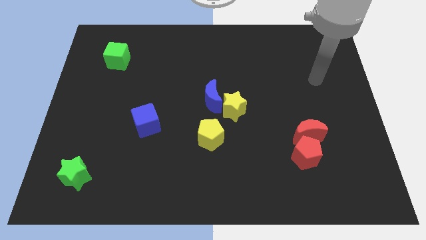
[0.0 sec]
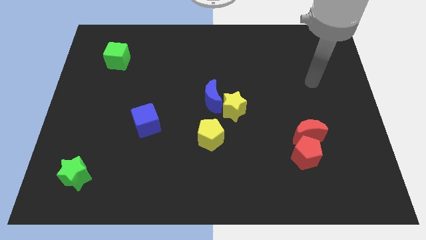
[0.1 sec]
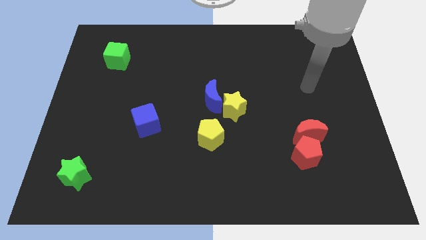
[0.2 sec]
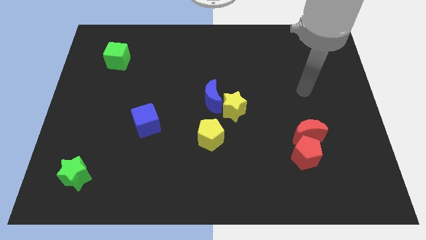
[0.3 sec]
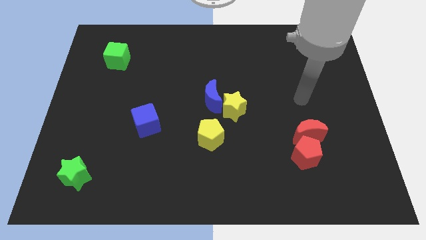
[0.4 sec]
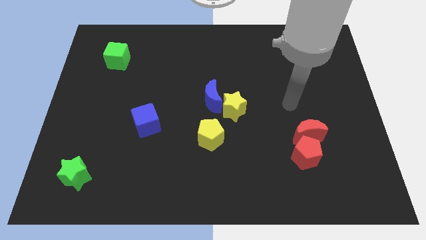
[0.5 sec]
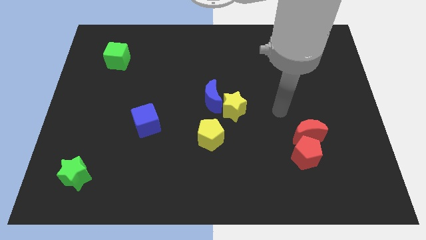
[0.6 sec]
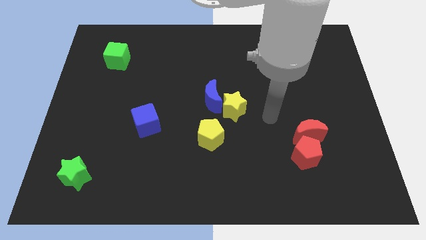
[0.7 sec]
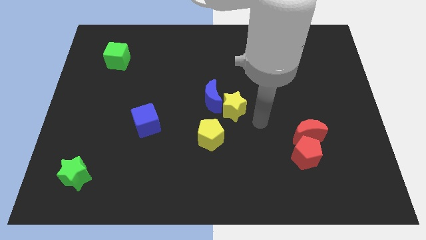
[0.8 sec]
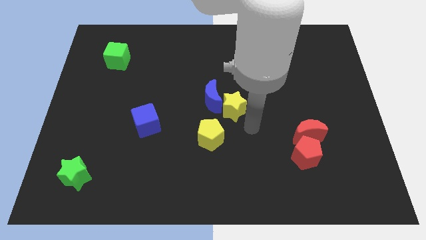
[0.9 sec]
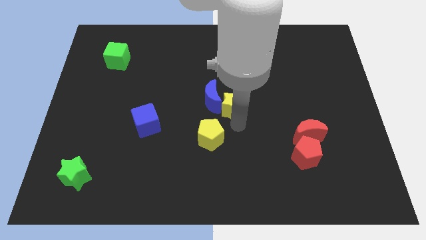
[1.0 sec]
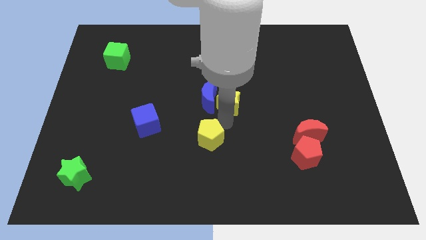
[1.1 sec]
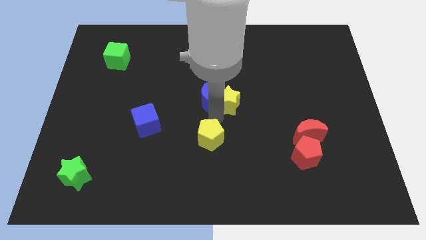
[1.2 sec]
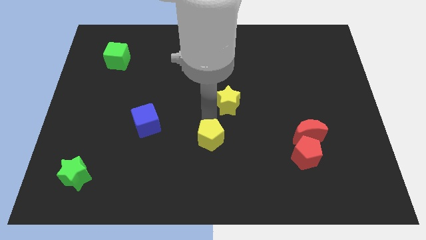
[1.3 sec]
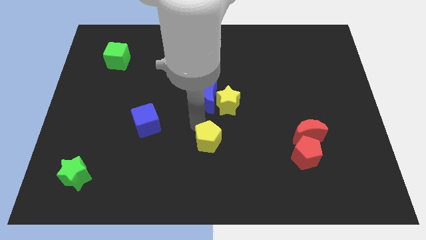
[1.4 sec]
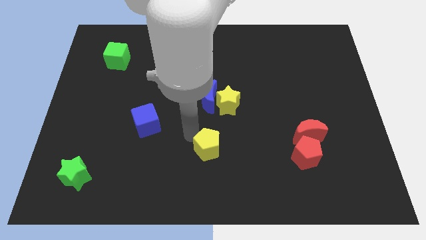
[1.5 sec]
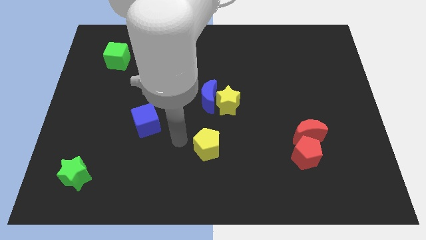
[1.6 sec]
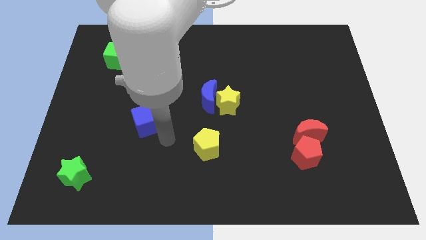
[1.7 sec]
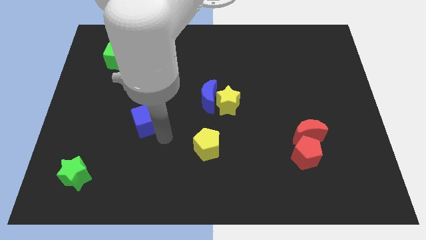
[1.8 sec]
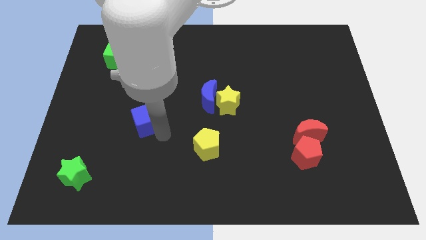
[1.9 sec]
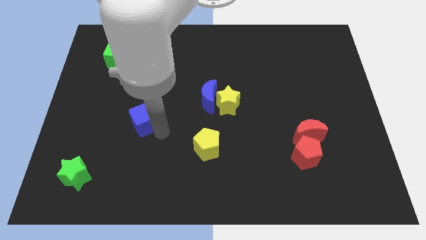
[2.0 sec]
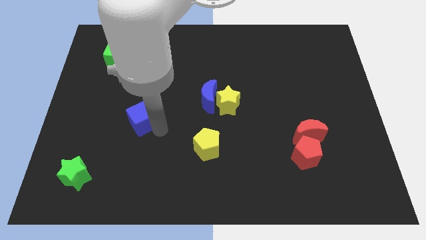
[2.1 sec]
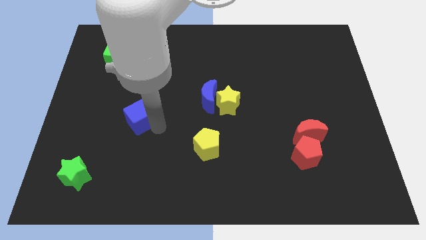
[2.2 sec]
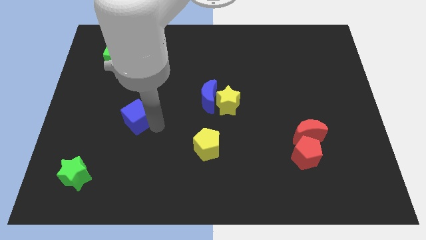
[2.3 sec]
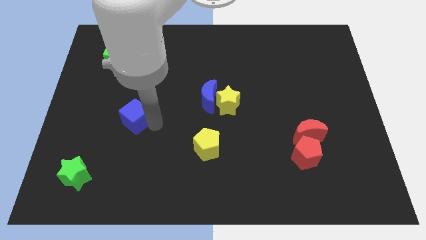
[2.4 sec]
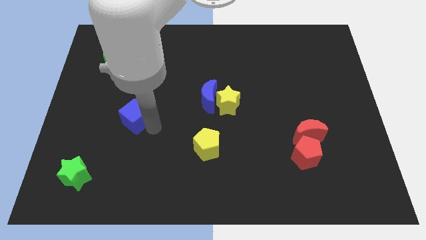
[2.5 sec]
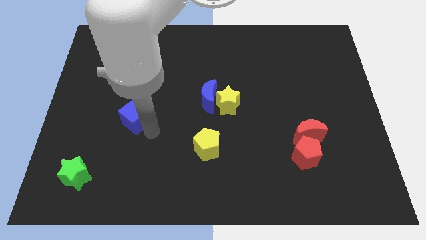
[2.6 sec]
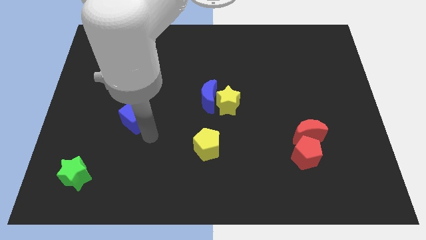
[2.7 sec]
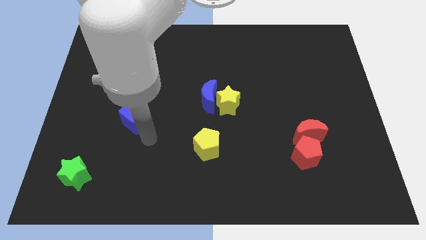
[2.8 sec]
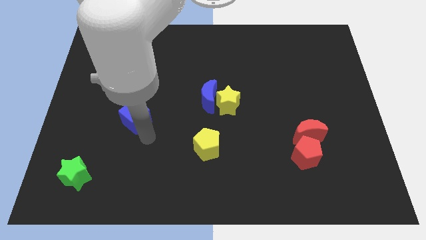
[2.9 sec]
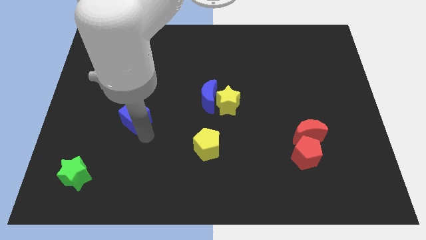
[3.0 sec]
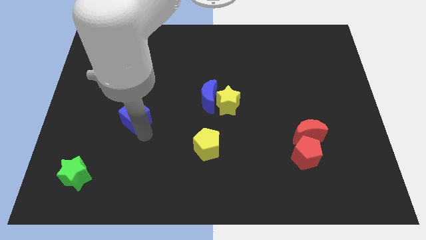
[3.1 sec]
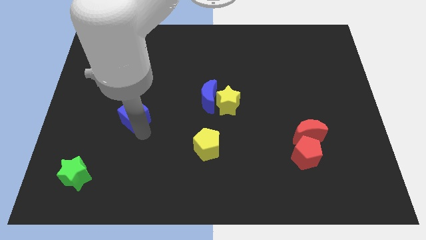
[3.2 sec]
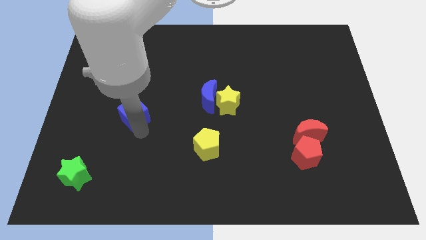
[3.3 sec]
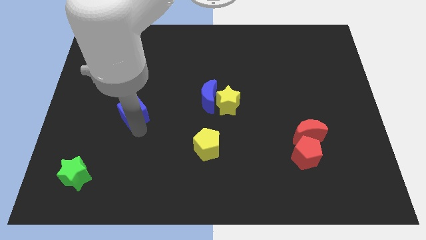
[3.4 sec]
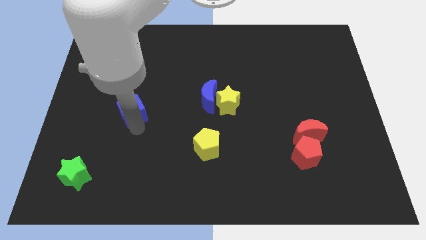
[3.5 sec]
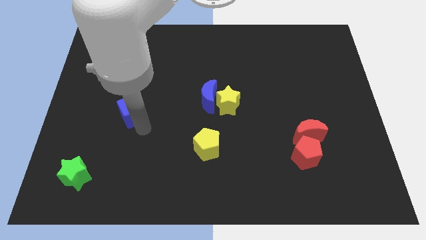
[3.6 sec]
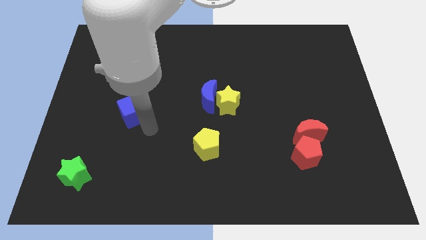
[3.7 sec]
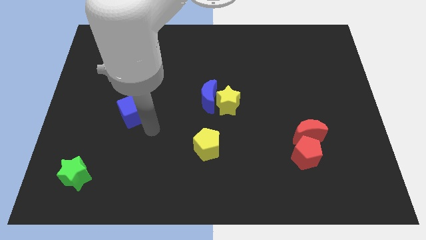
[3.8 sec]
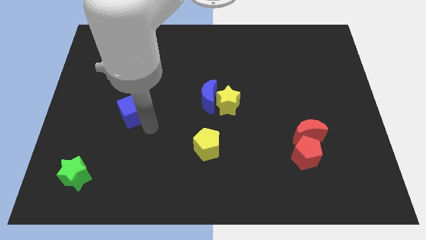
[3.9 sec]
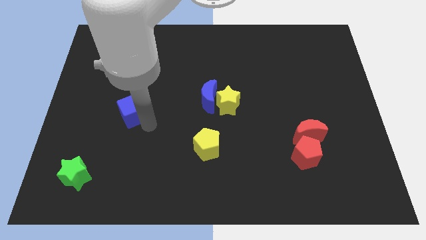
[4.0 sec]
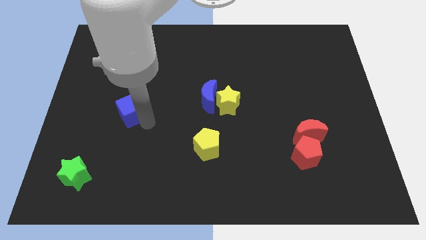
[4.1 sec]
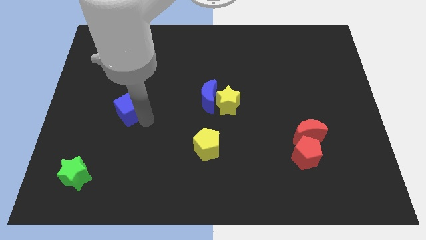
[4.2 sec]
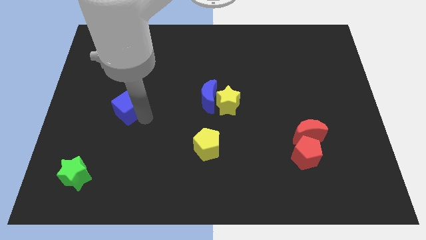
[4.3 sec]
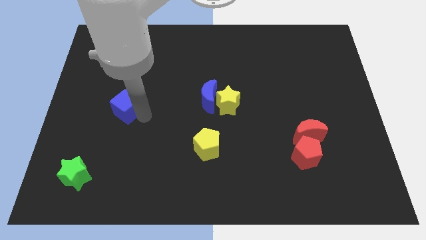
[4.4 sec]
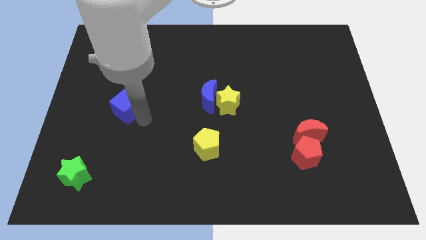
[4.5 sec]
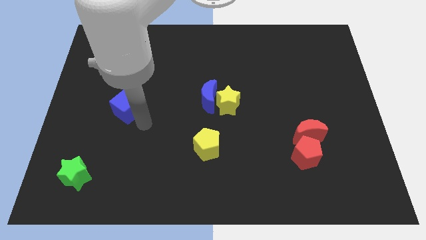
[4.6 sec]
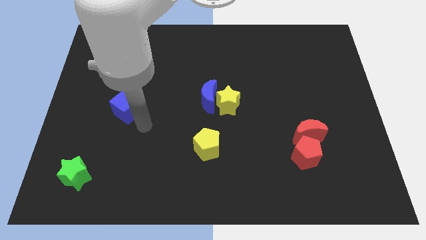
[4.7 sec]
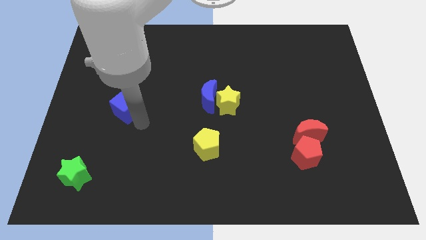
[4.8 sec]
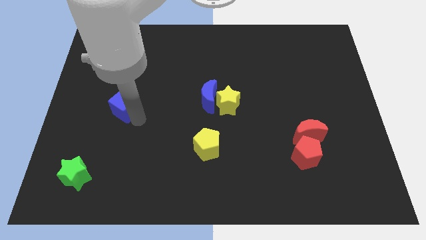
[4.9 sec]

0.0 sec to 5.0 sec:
slightly move the blue cube up and then left

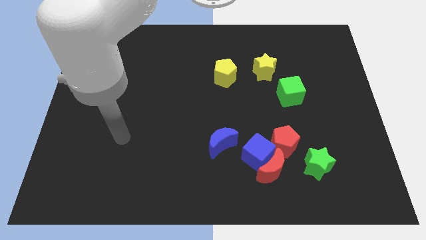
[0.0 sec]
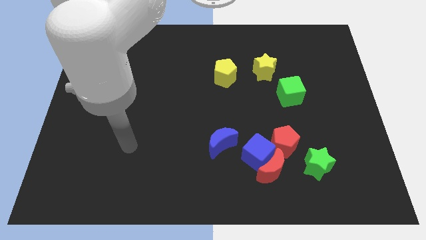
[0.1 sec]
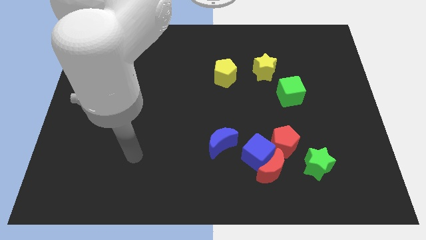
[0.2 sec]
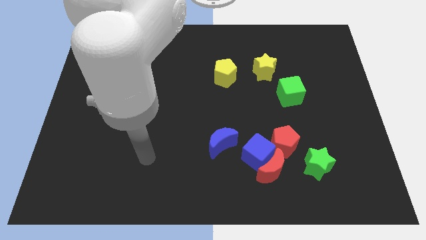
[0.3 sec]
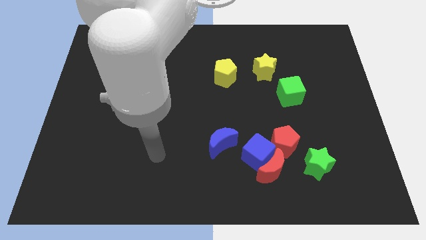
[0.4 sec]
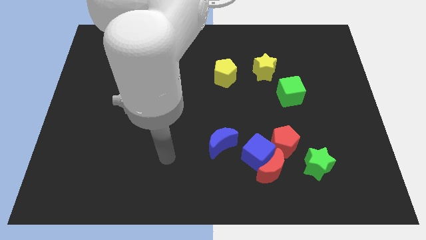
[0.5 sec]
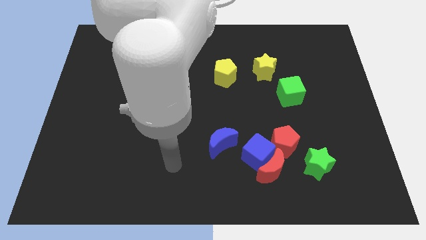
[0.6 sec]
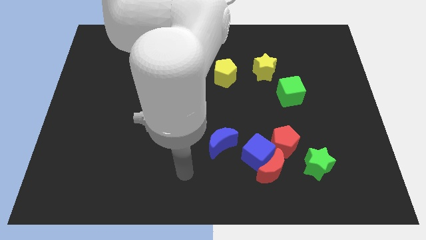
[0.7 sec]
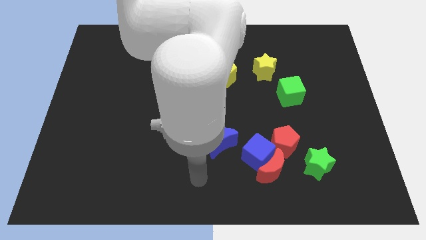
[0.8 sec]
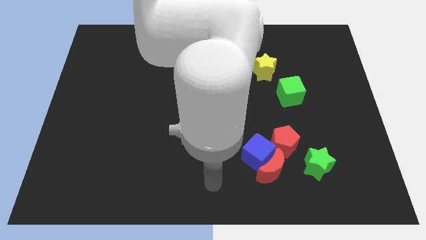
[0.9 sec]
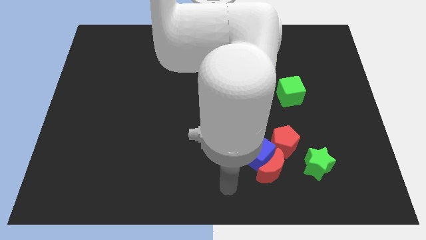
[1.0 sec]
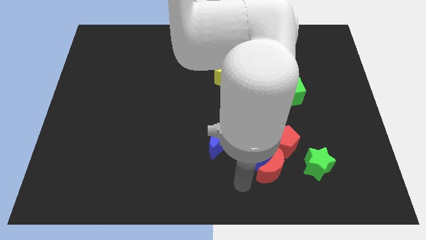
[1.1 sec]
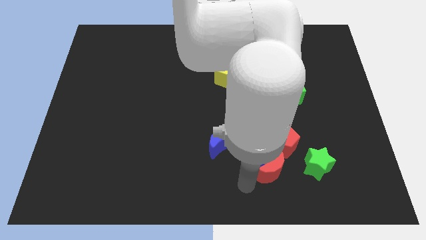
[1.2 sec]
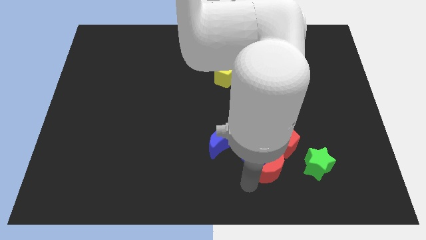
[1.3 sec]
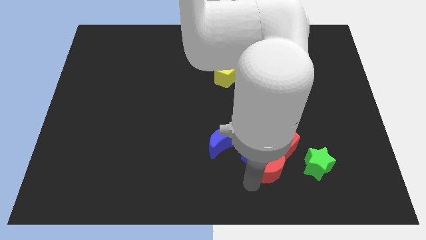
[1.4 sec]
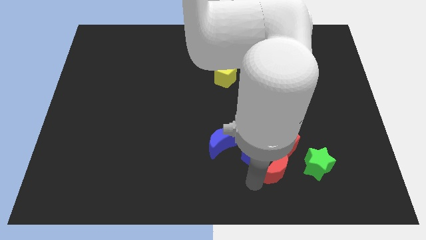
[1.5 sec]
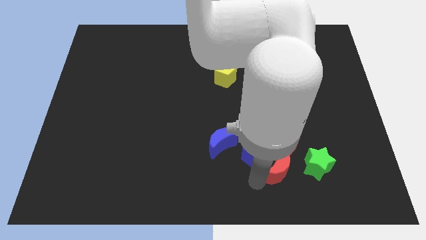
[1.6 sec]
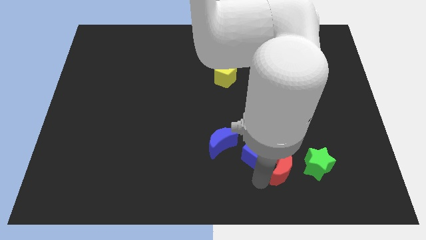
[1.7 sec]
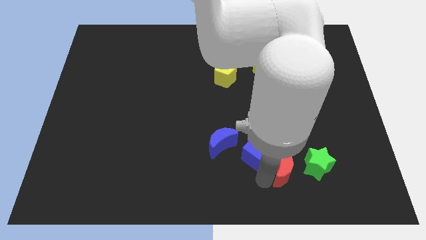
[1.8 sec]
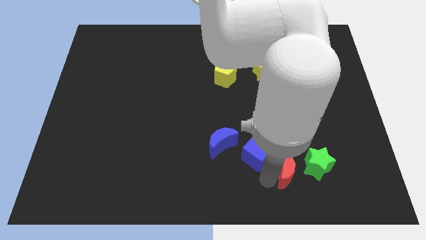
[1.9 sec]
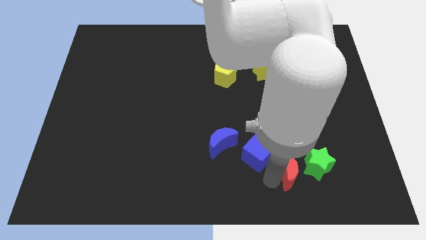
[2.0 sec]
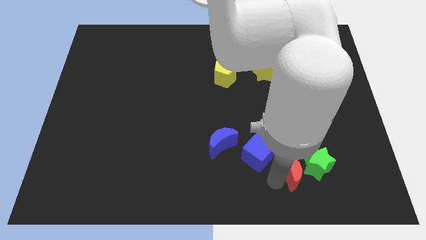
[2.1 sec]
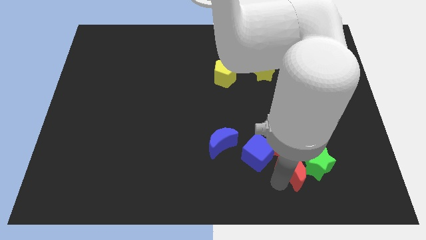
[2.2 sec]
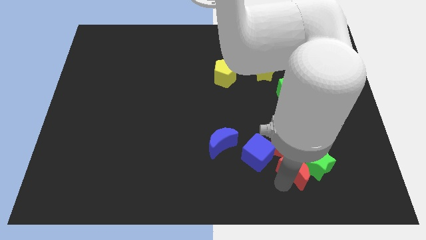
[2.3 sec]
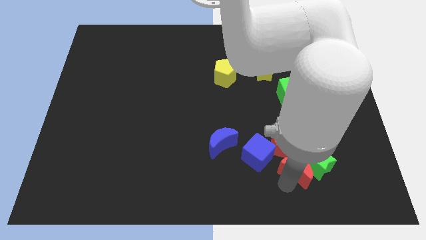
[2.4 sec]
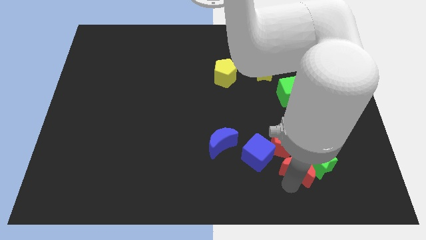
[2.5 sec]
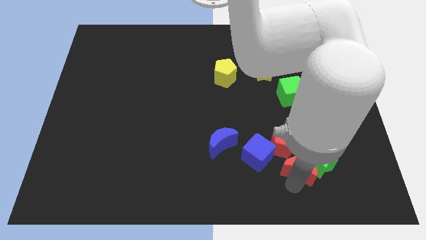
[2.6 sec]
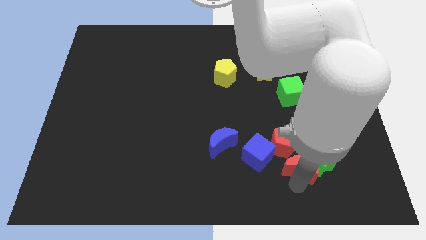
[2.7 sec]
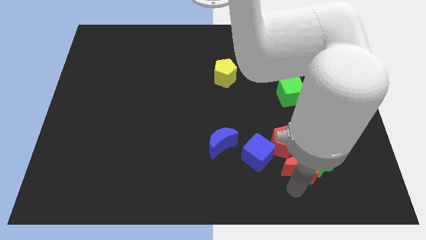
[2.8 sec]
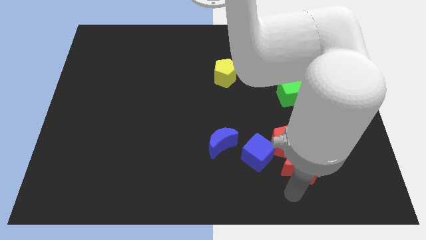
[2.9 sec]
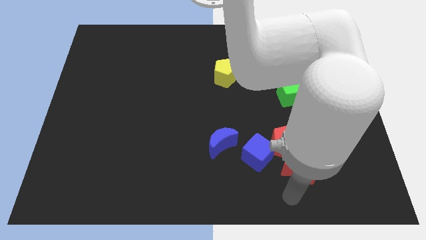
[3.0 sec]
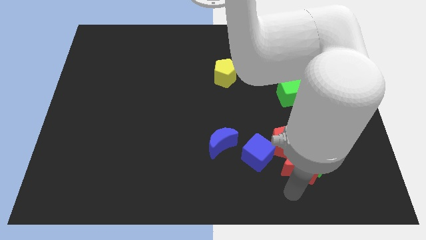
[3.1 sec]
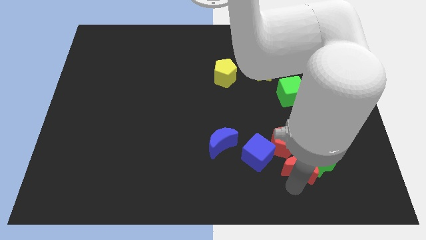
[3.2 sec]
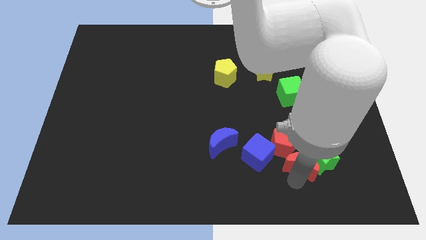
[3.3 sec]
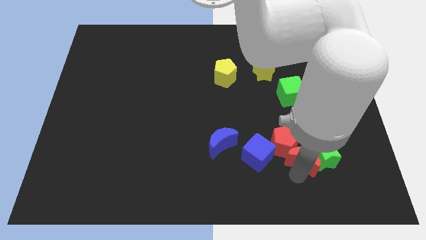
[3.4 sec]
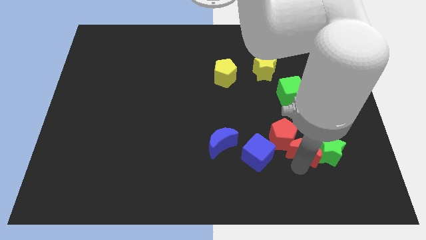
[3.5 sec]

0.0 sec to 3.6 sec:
move the red moon a little upwards and then to the right
